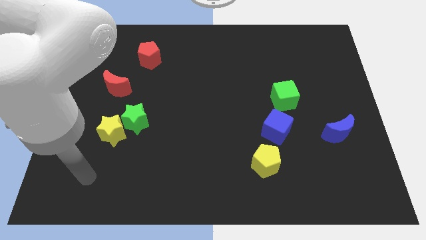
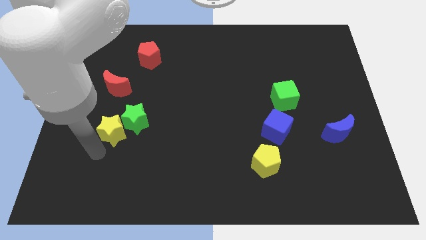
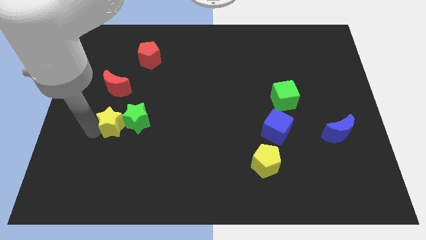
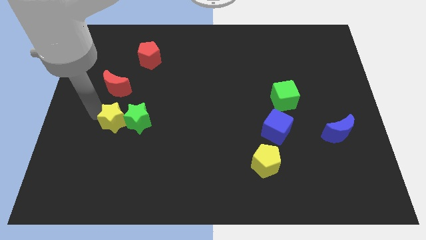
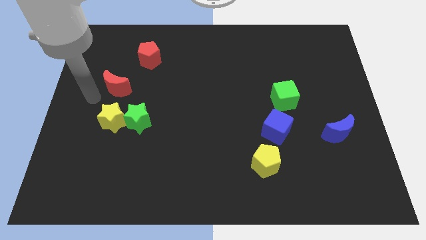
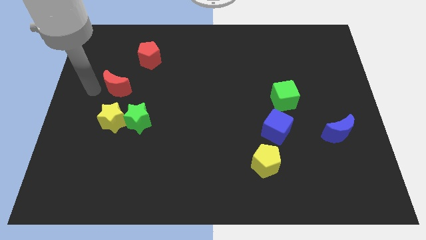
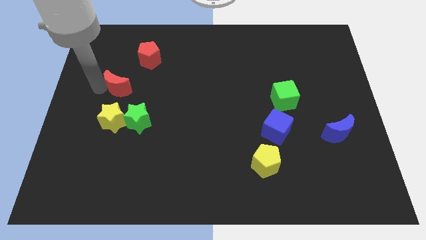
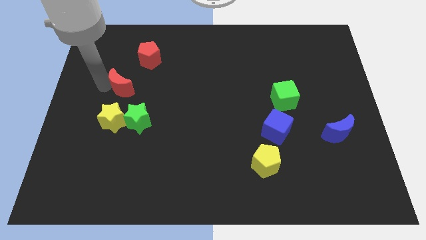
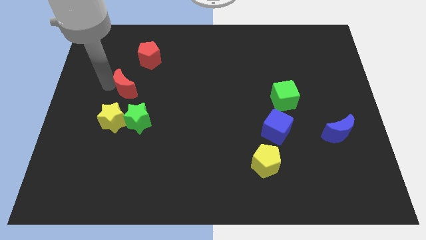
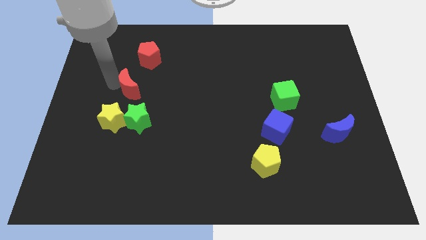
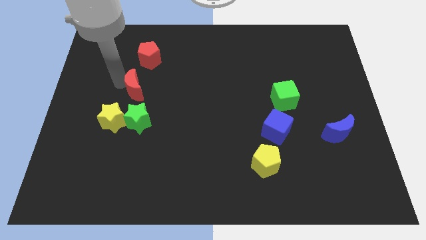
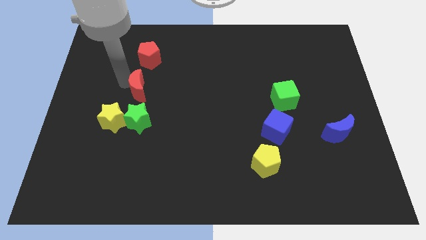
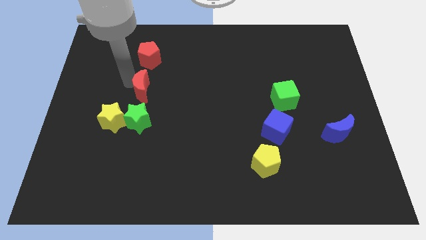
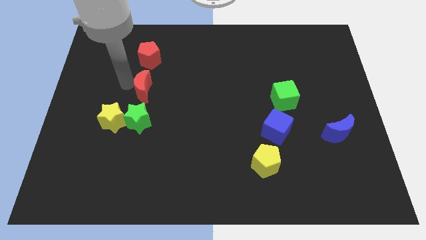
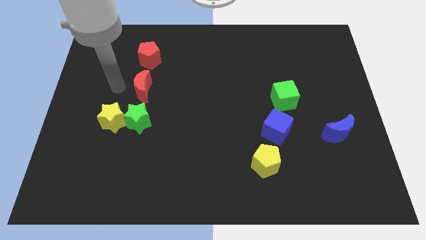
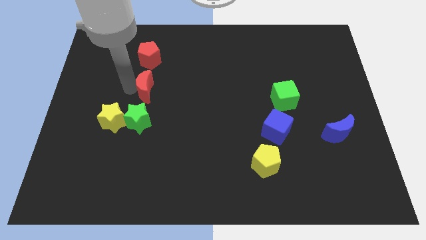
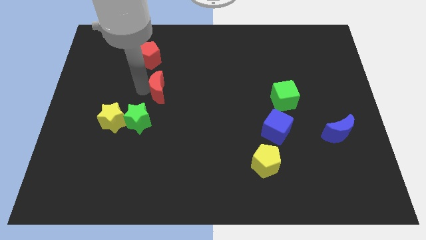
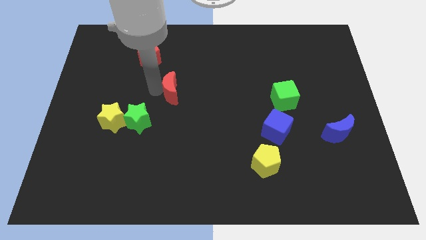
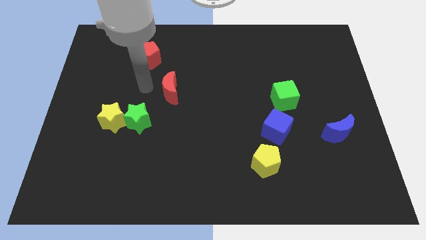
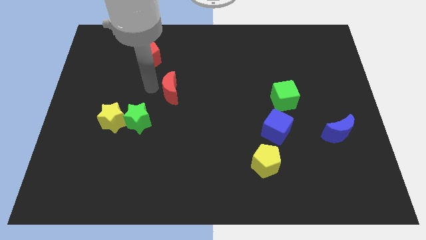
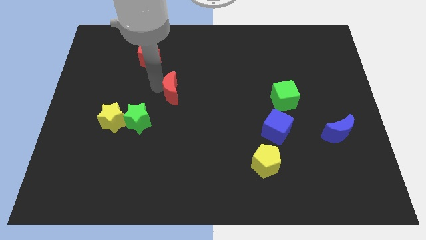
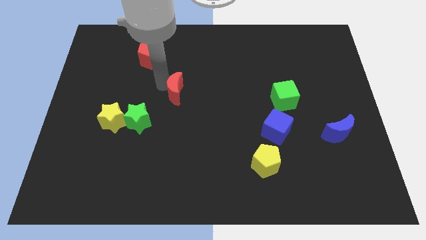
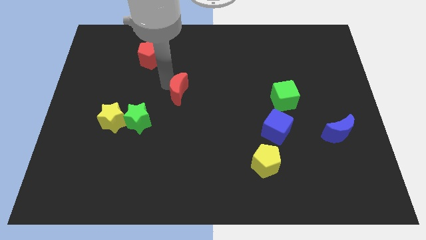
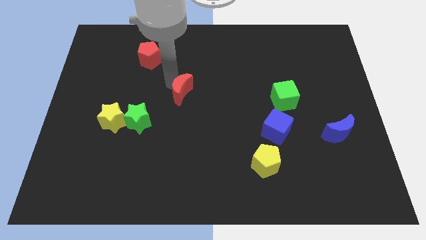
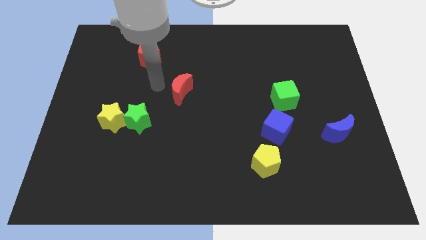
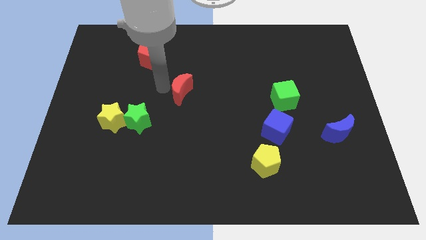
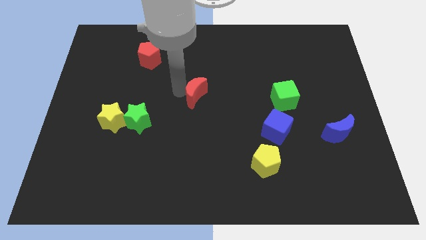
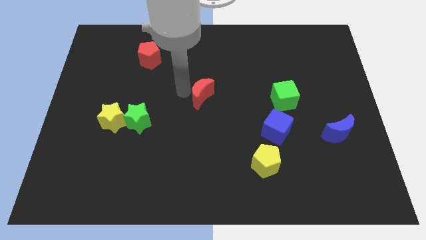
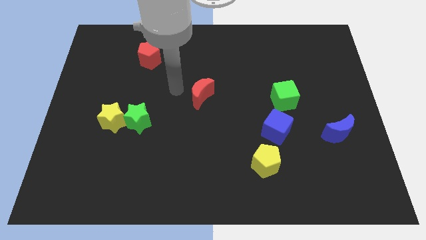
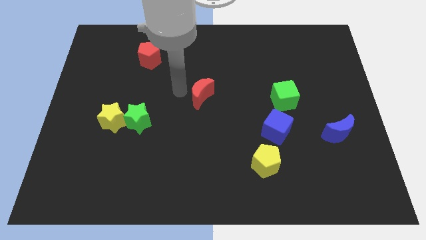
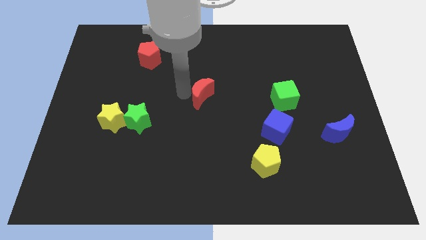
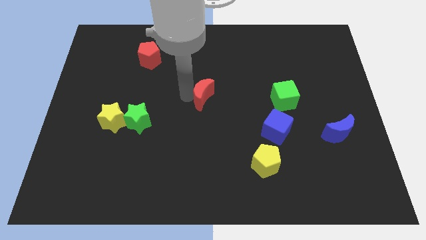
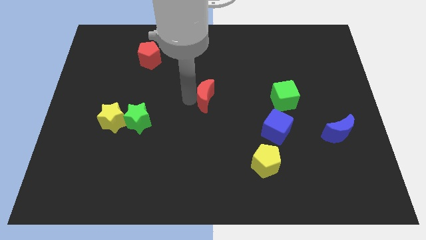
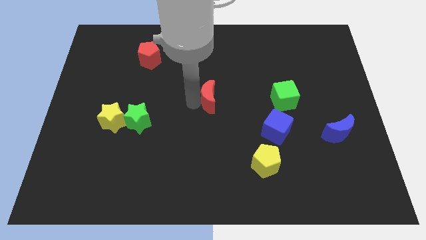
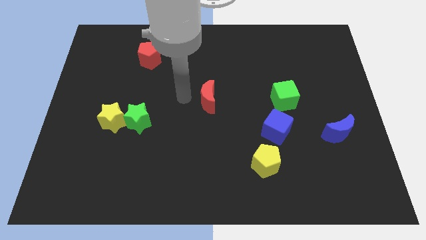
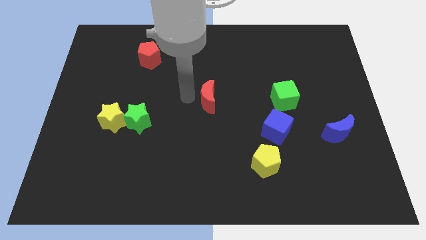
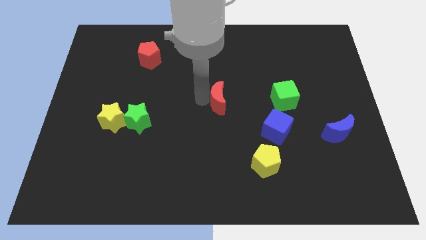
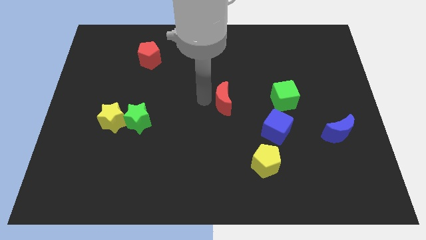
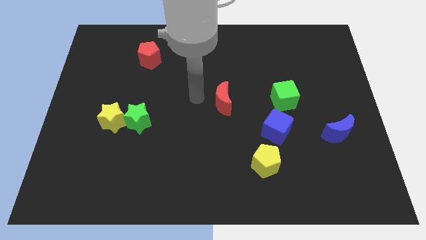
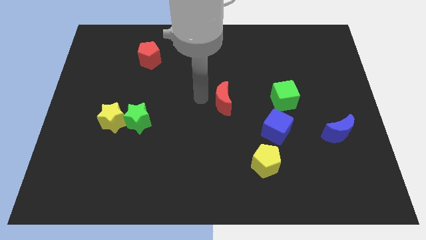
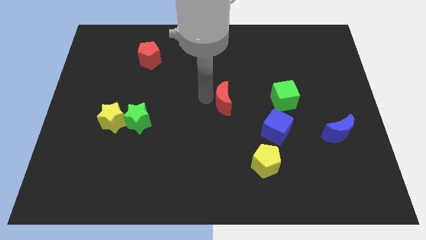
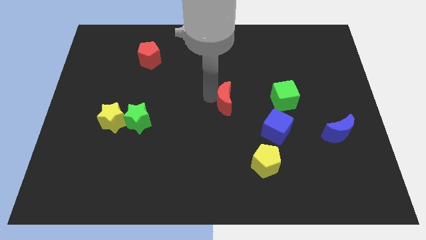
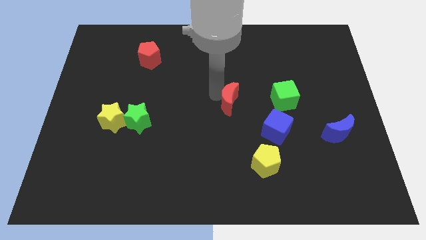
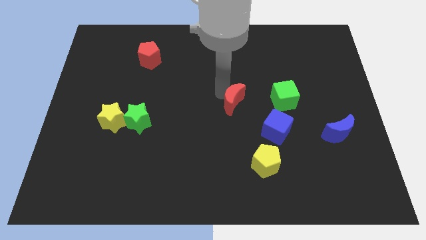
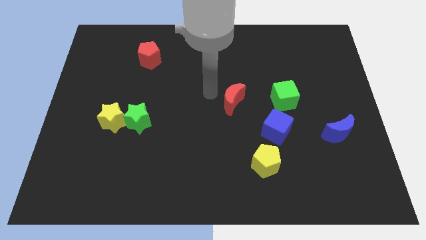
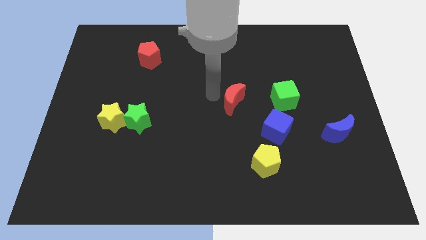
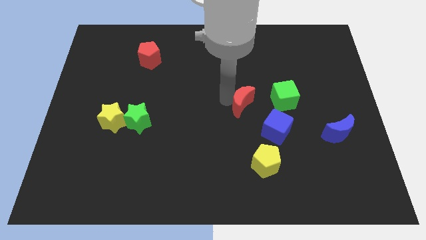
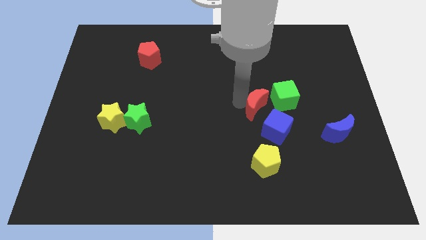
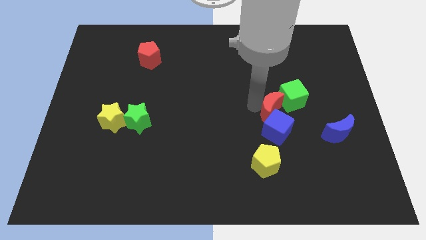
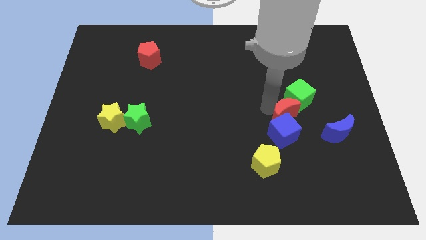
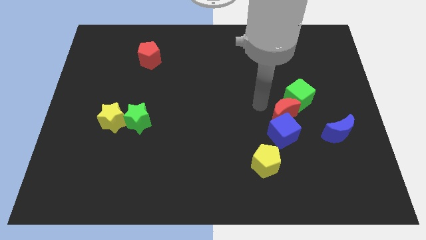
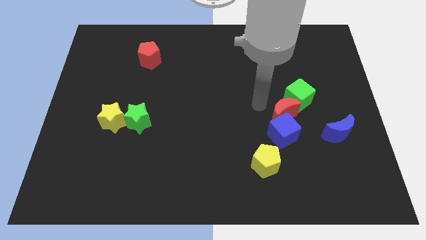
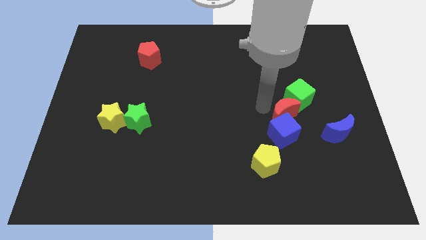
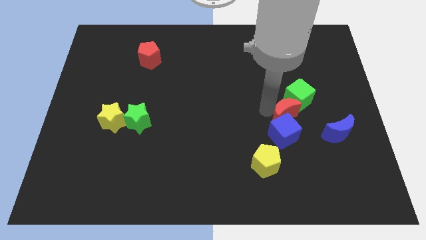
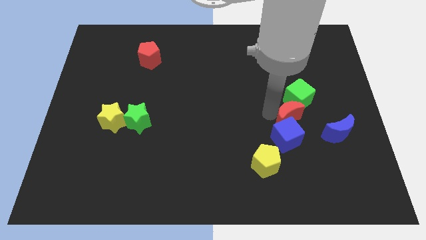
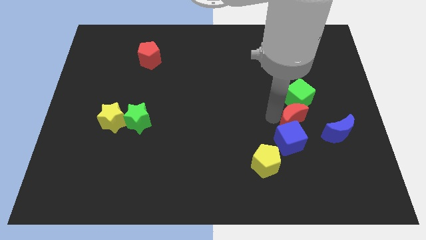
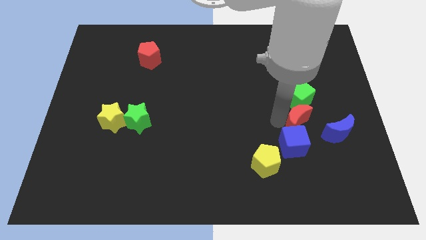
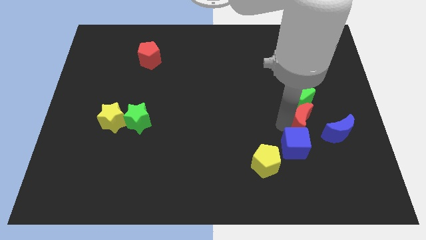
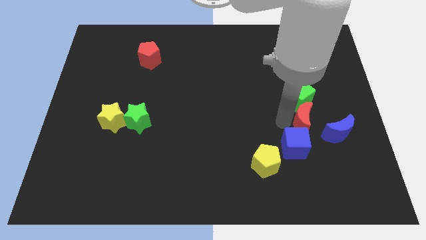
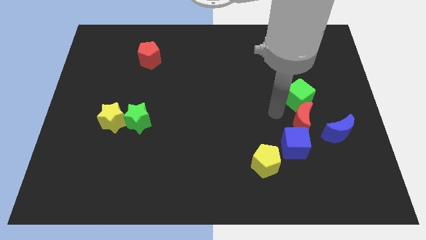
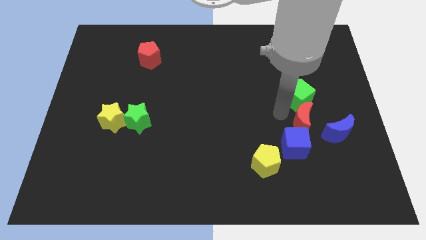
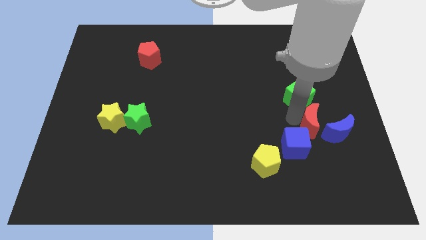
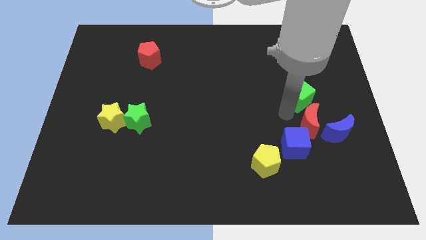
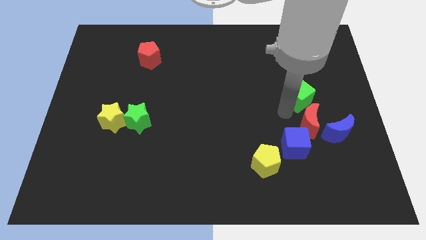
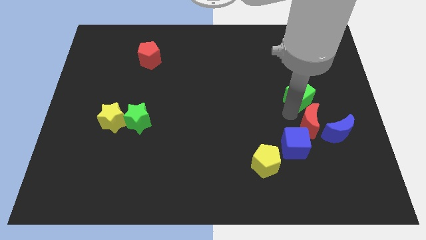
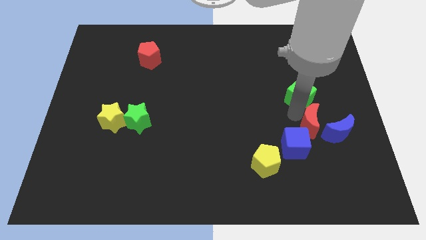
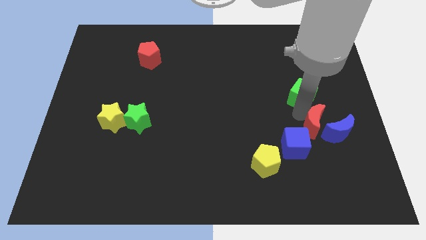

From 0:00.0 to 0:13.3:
push the red moon next to the blue moon

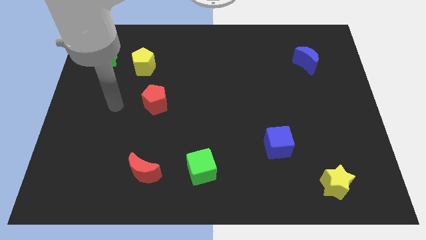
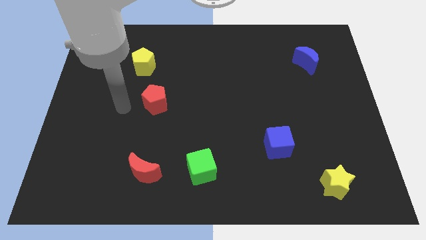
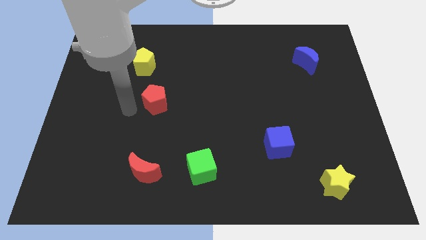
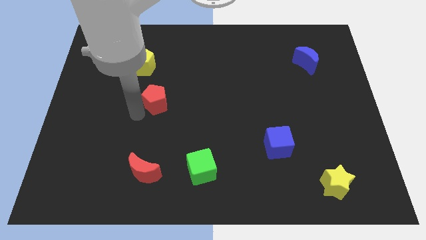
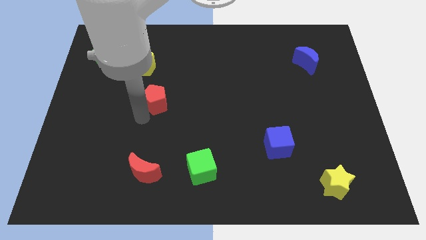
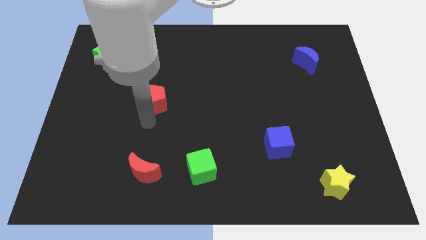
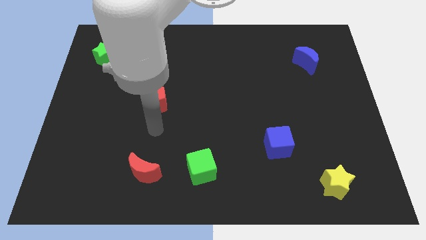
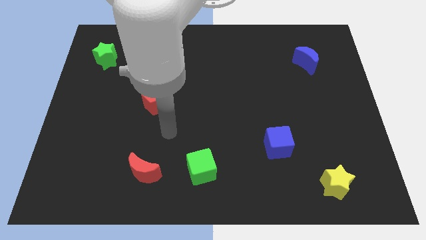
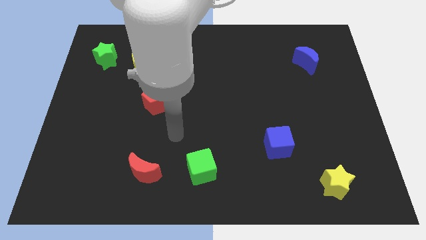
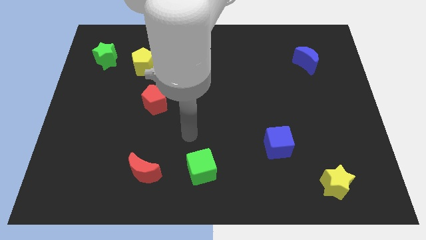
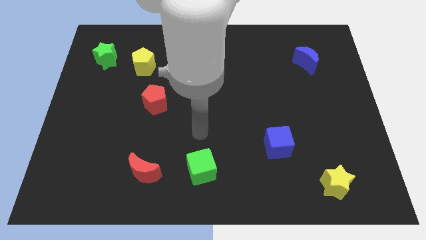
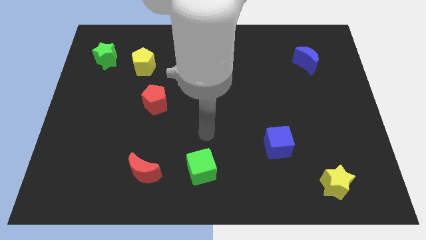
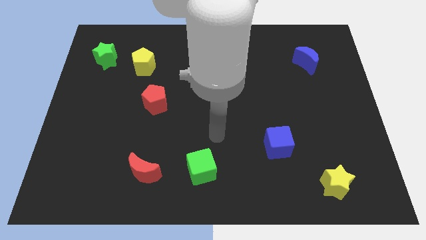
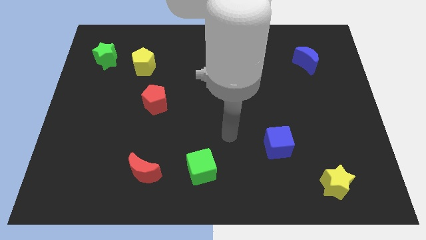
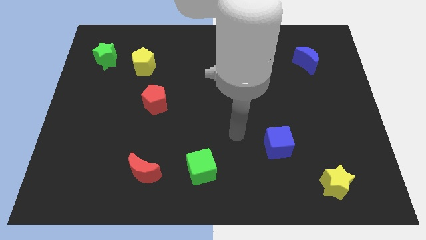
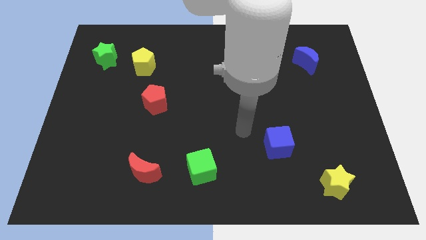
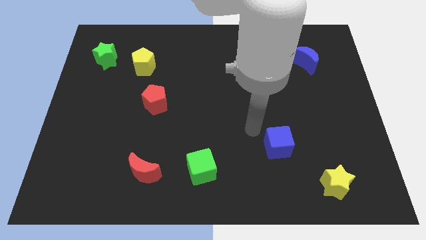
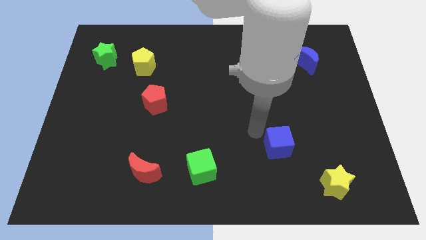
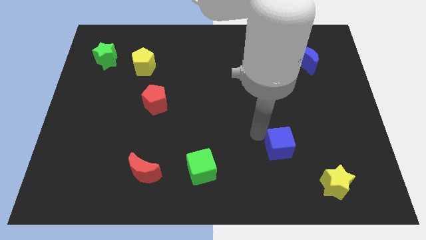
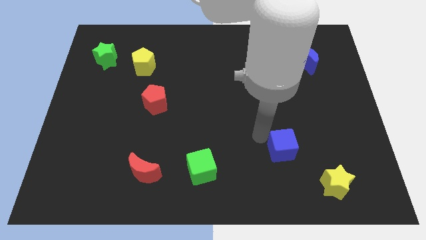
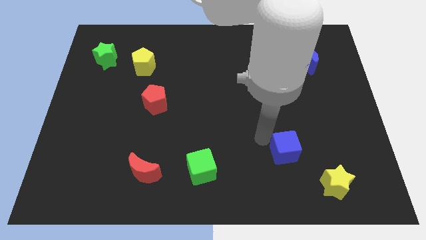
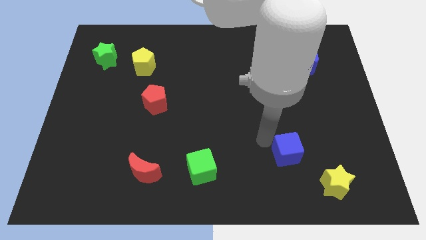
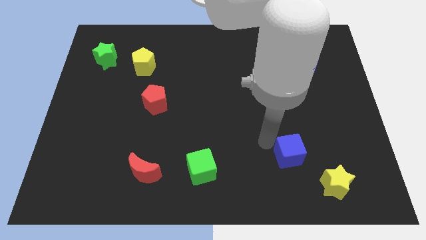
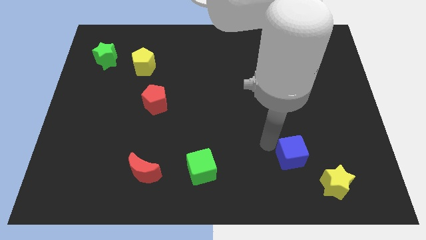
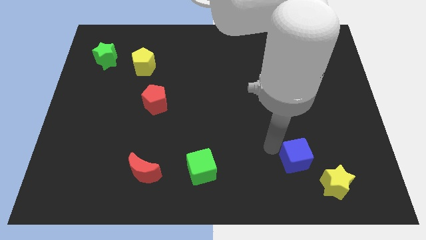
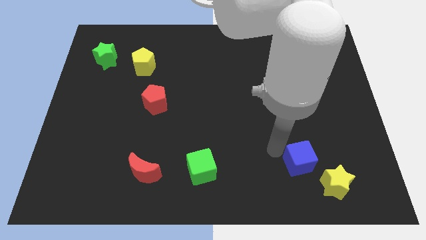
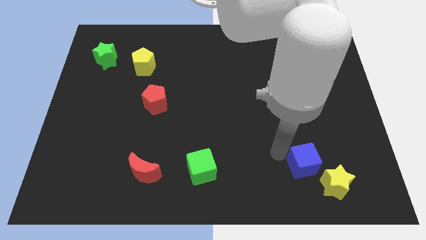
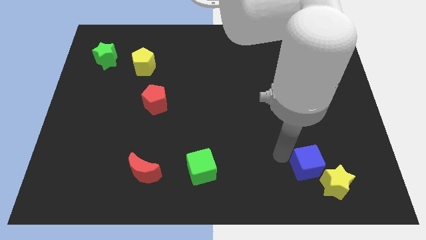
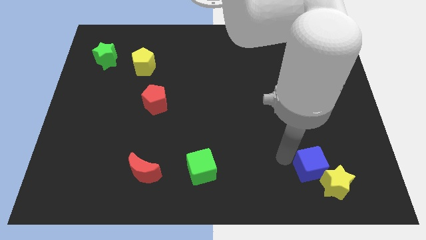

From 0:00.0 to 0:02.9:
push the blue cube close to the yellow star
